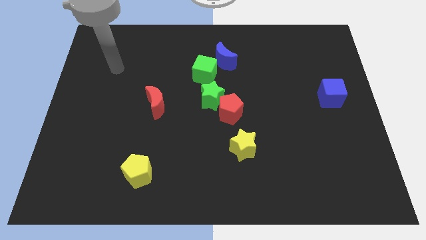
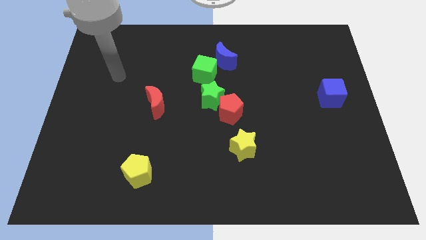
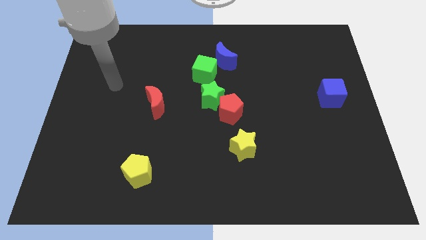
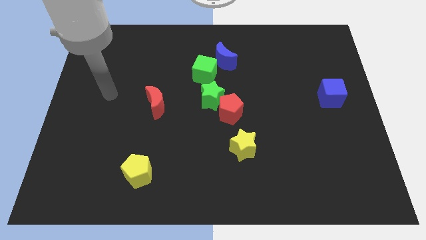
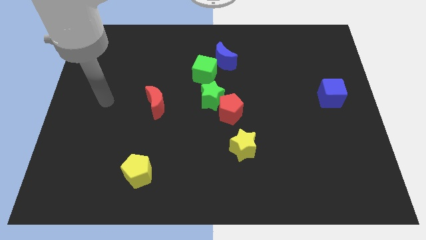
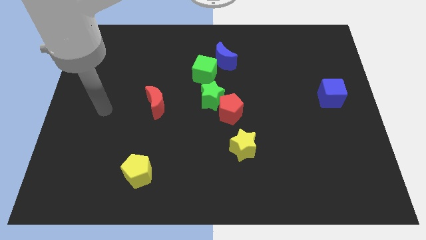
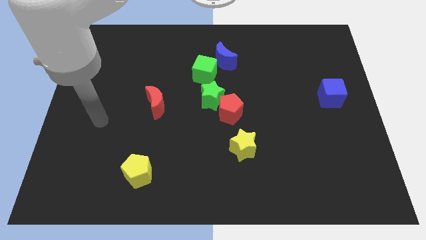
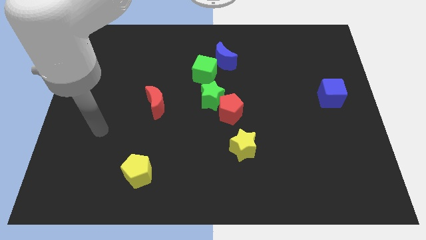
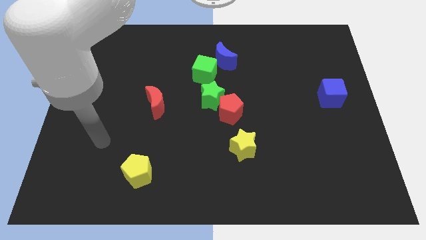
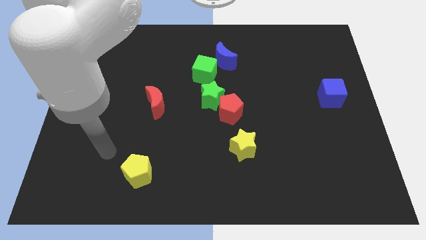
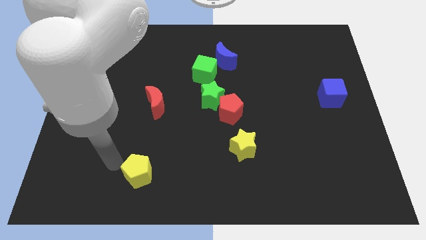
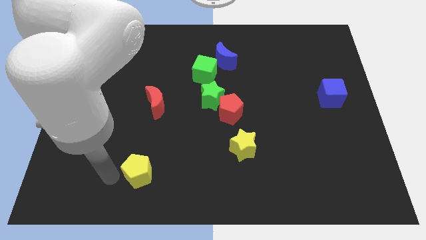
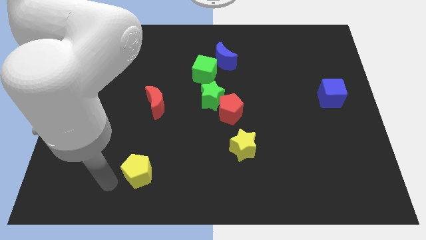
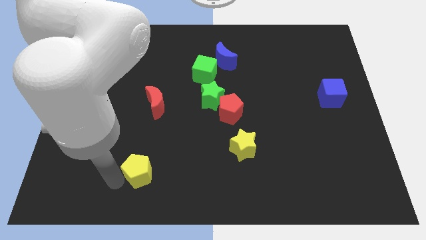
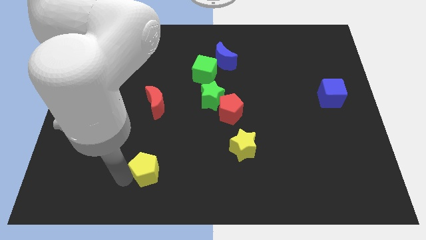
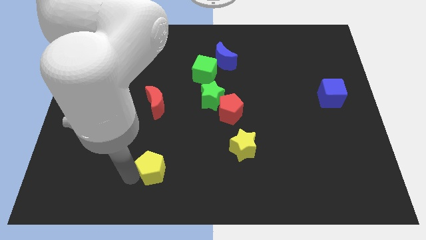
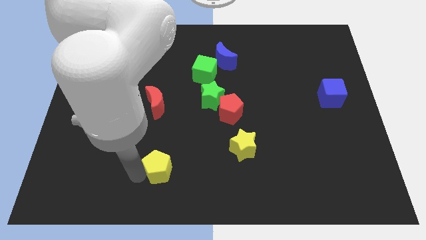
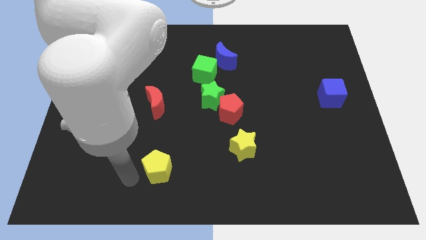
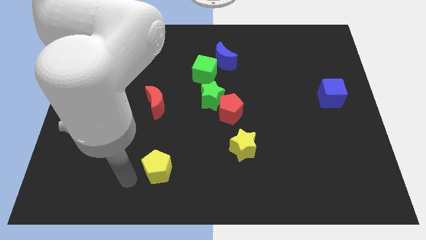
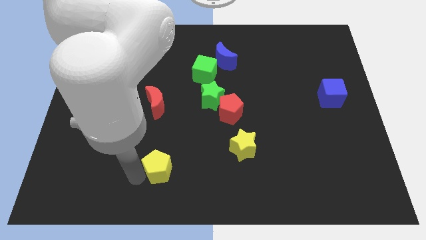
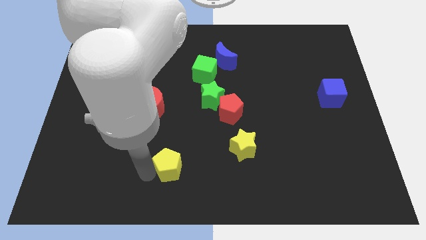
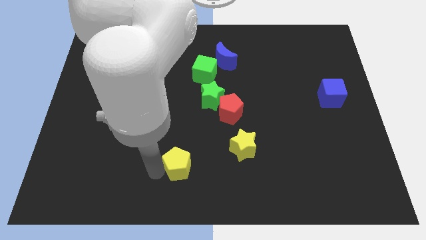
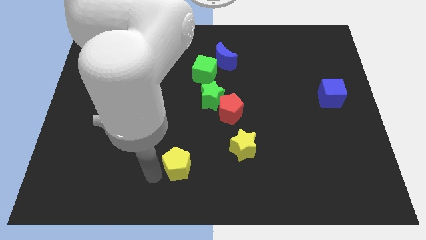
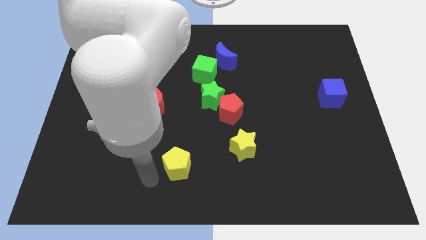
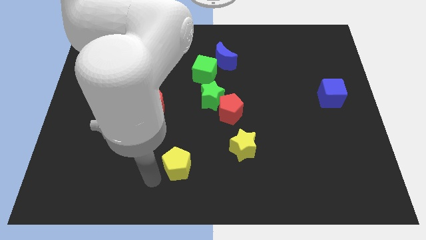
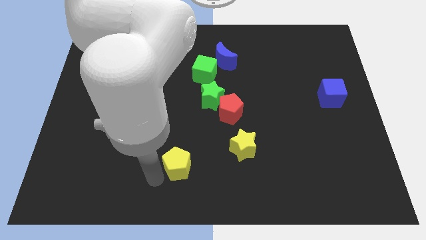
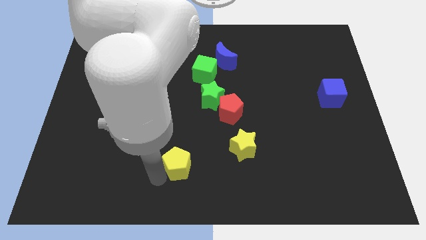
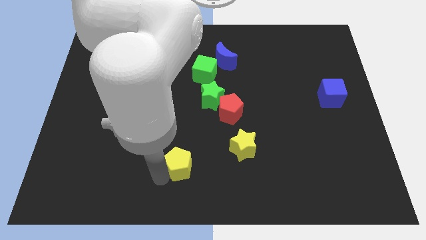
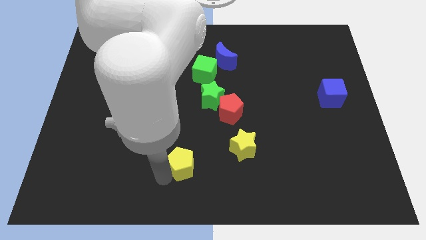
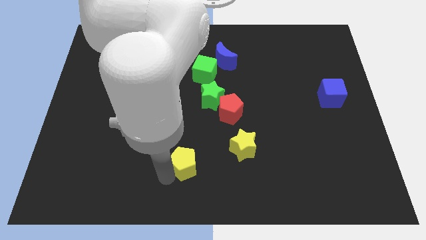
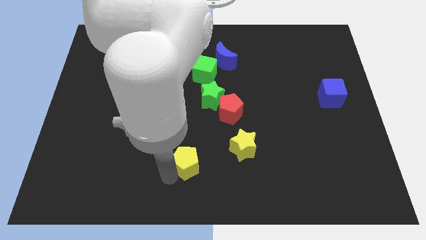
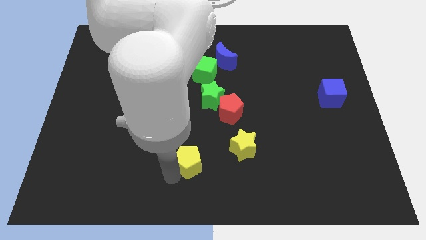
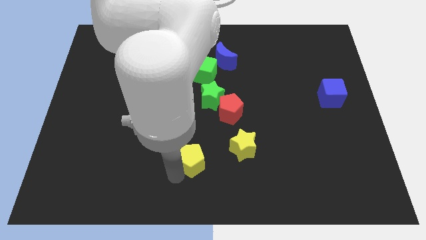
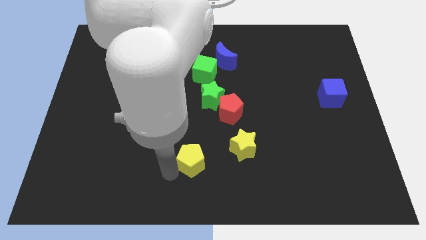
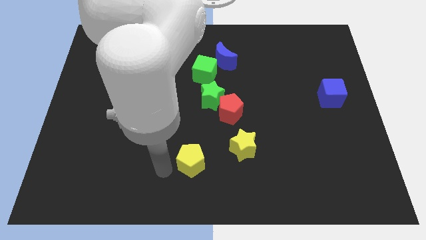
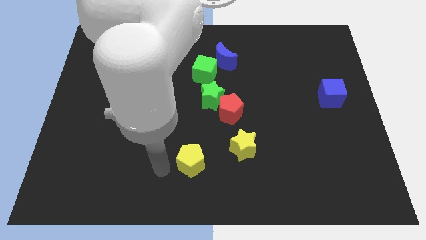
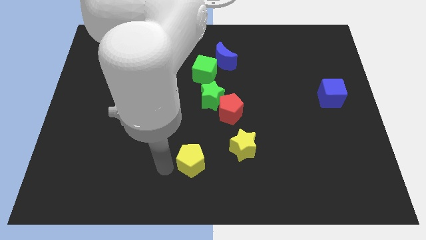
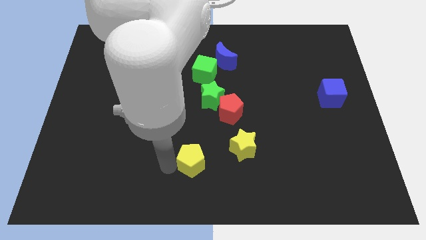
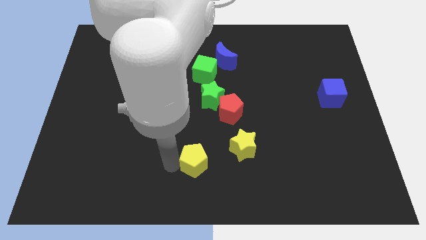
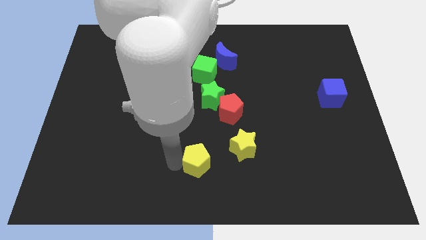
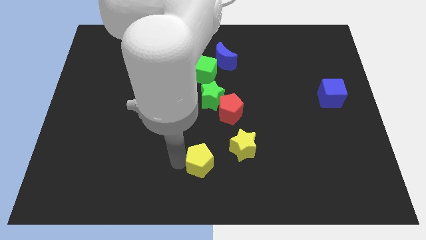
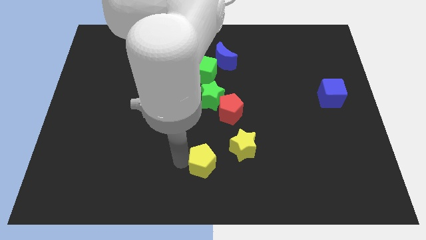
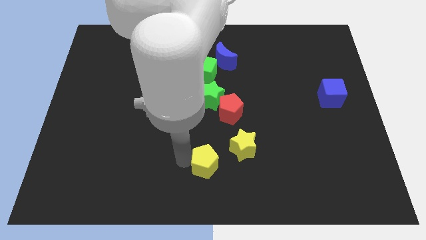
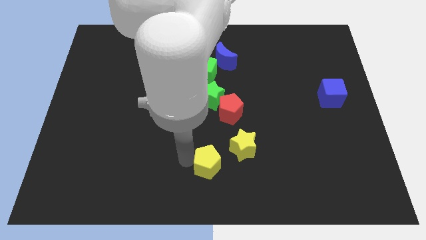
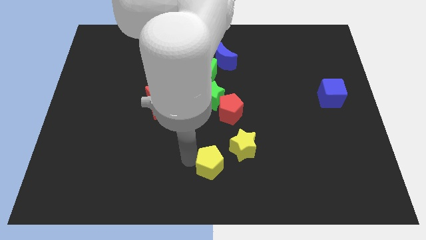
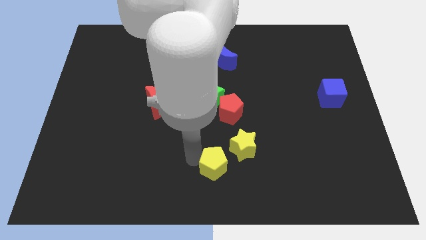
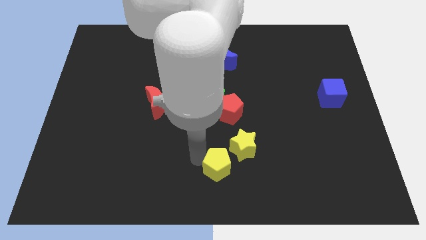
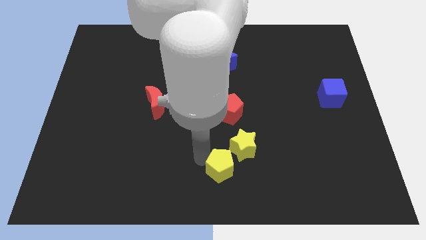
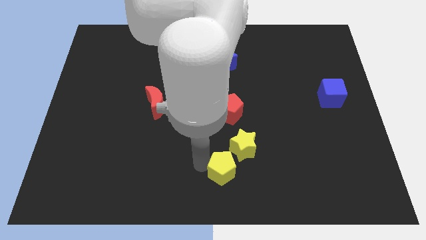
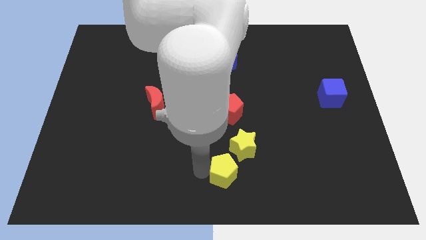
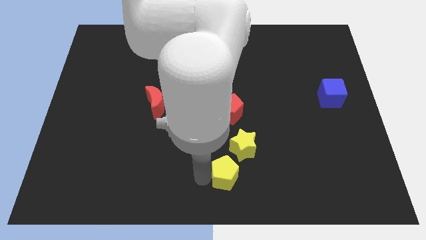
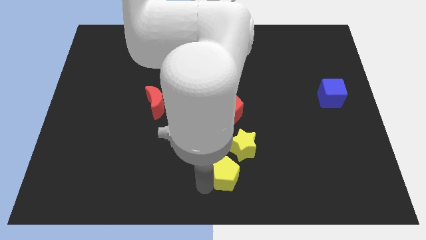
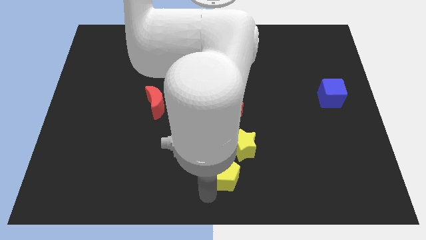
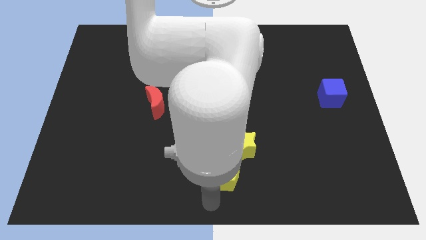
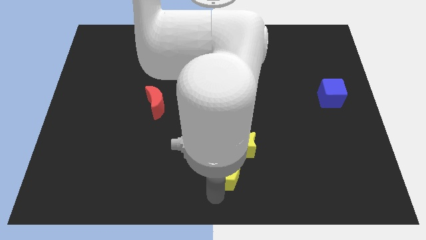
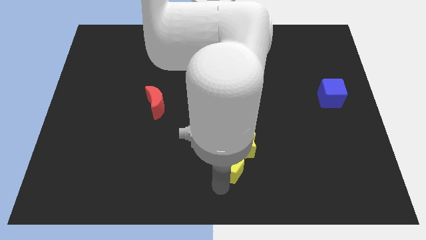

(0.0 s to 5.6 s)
put the yellow pentagon to the yellow star
